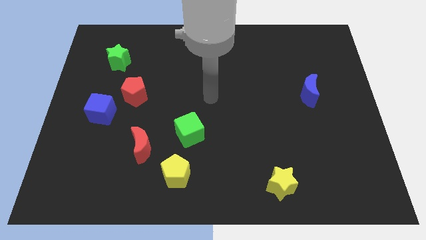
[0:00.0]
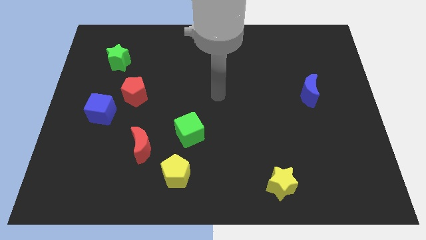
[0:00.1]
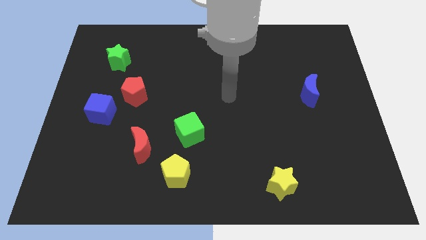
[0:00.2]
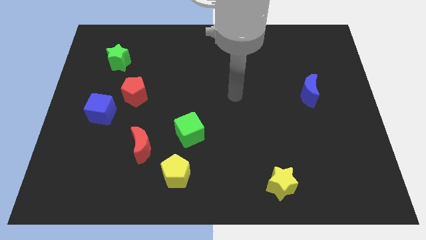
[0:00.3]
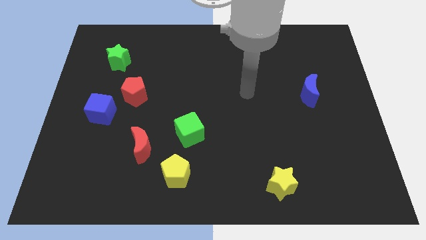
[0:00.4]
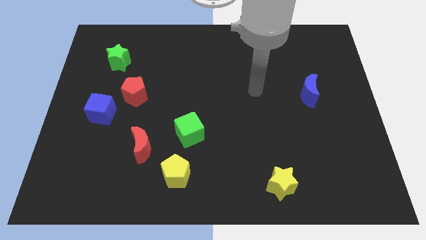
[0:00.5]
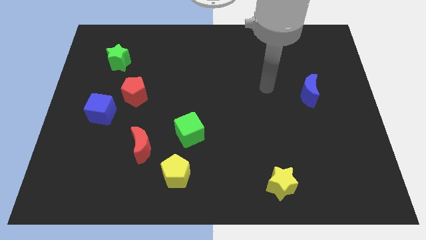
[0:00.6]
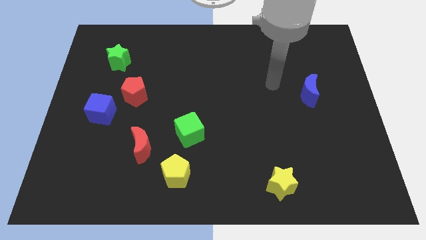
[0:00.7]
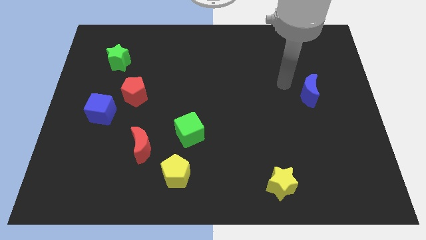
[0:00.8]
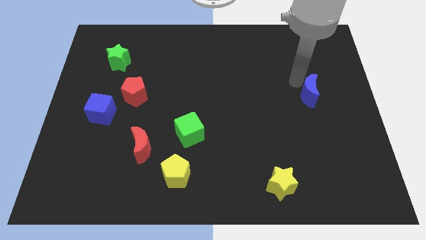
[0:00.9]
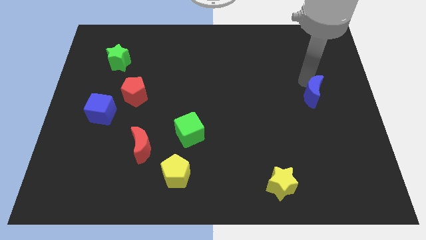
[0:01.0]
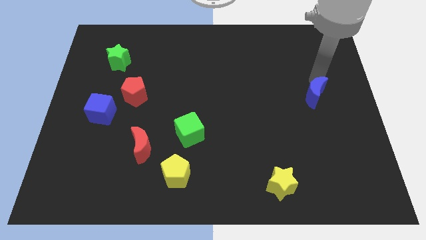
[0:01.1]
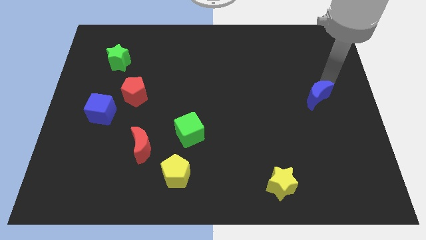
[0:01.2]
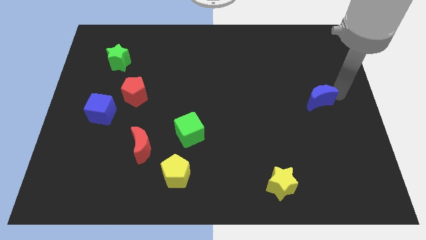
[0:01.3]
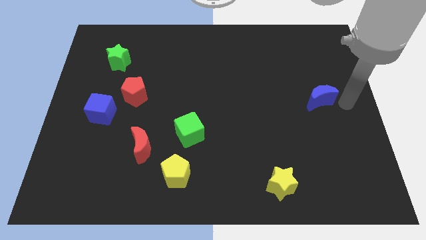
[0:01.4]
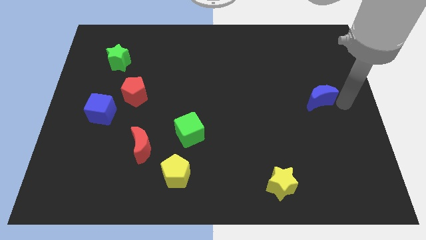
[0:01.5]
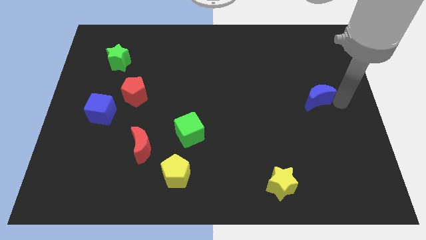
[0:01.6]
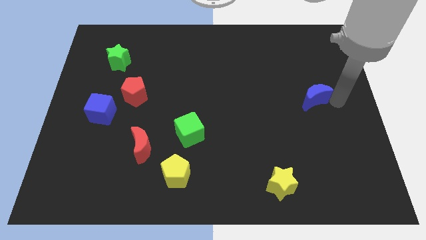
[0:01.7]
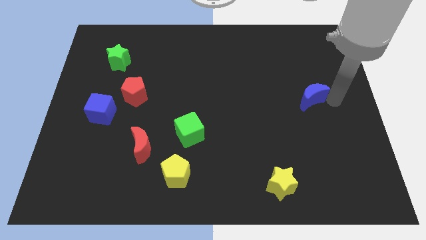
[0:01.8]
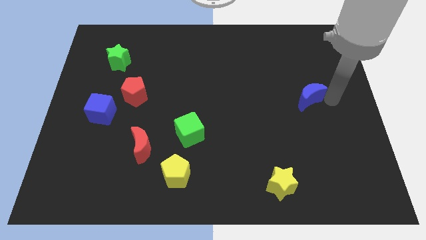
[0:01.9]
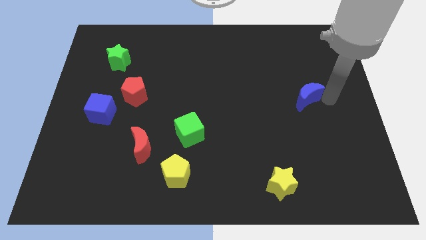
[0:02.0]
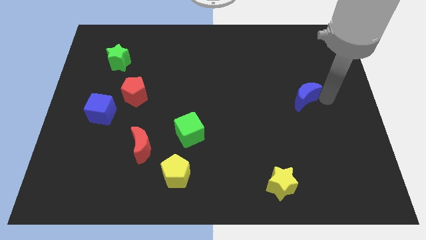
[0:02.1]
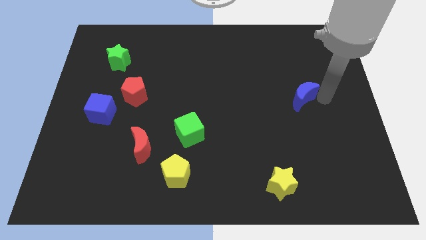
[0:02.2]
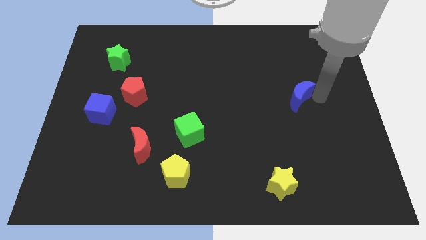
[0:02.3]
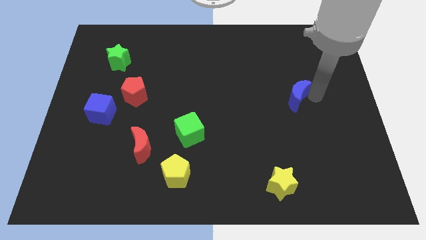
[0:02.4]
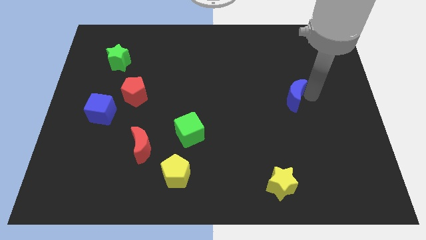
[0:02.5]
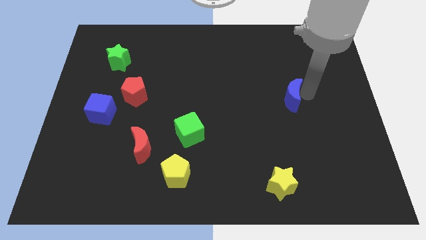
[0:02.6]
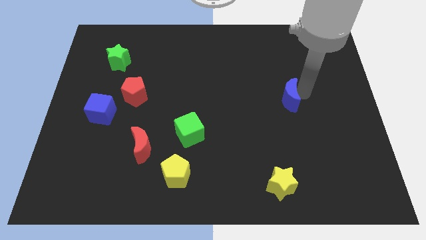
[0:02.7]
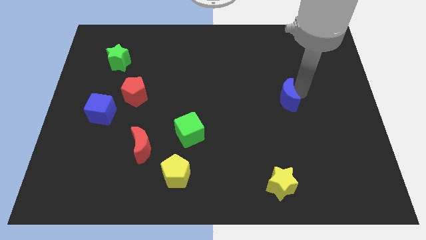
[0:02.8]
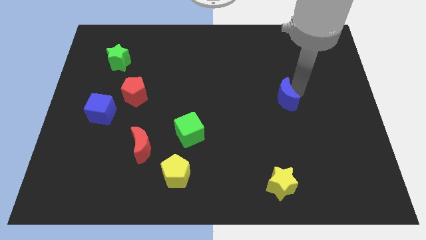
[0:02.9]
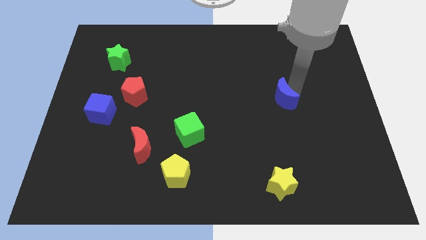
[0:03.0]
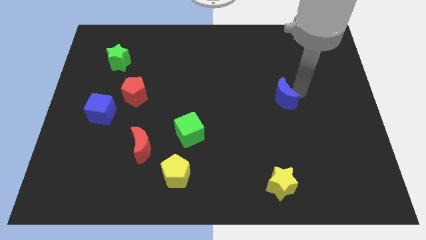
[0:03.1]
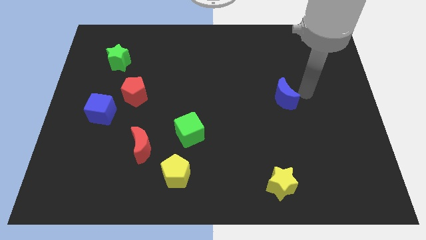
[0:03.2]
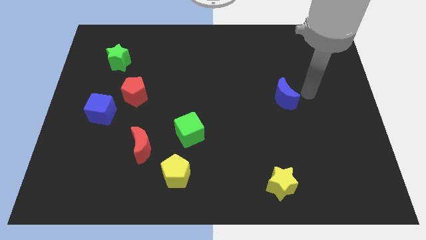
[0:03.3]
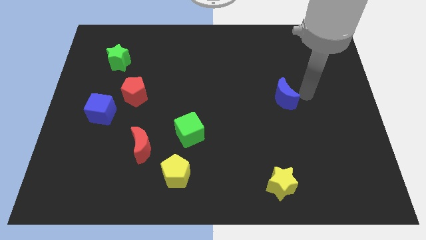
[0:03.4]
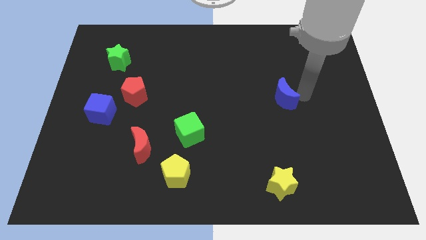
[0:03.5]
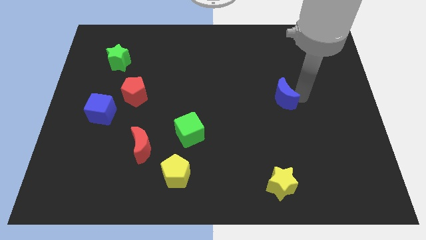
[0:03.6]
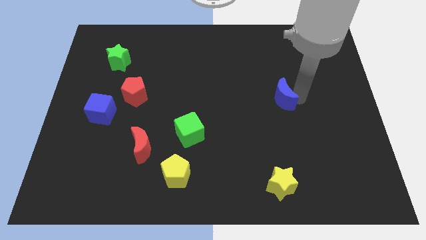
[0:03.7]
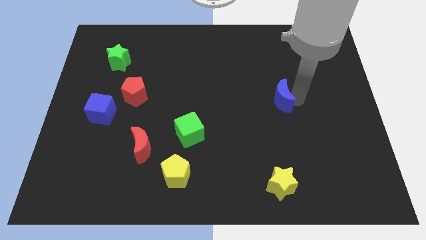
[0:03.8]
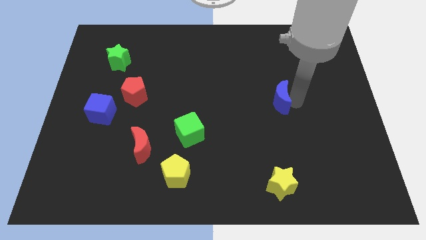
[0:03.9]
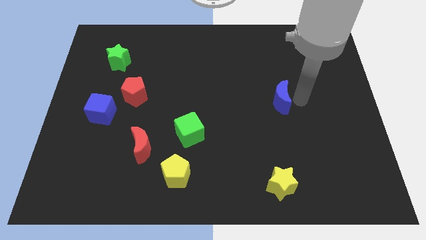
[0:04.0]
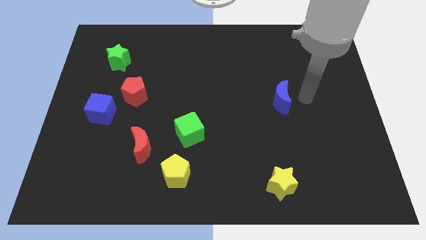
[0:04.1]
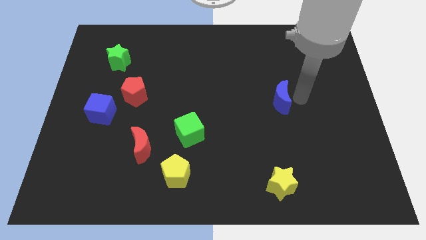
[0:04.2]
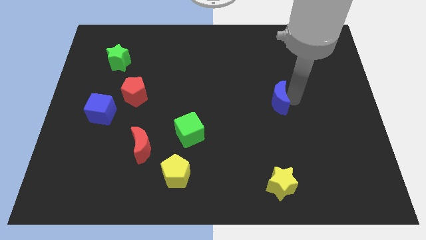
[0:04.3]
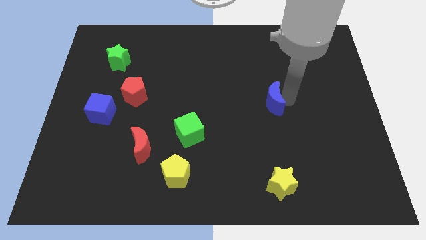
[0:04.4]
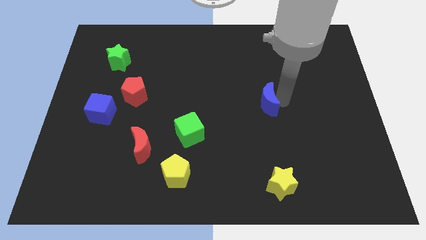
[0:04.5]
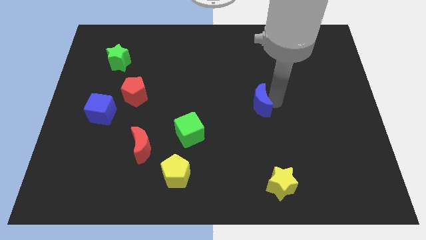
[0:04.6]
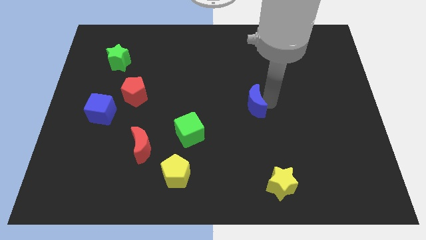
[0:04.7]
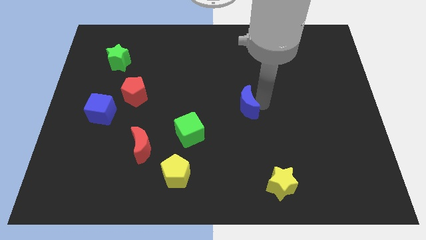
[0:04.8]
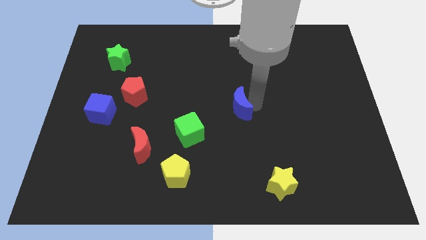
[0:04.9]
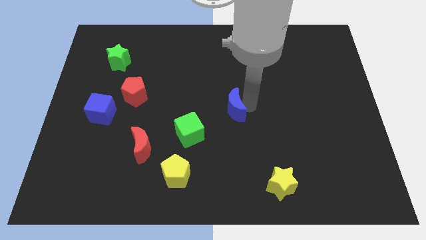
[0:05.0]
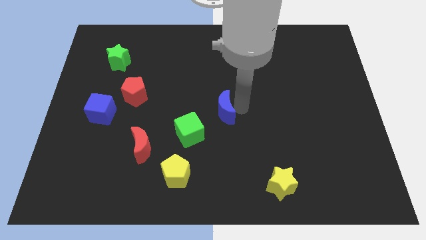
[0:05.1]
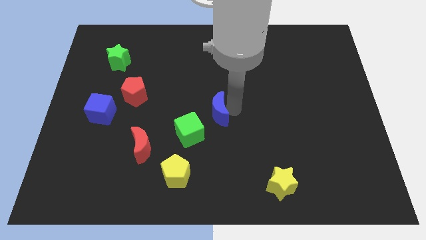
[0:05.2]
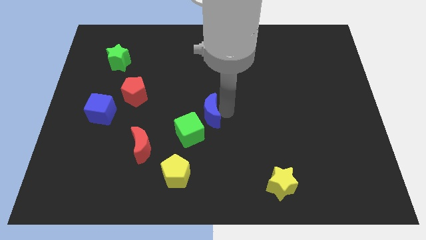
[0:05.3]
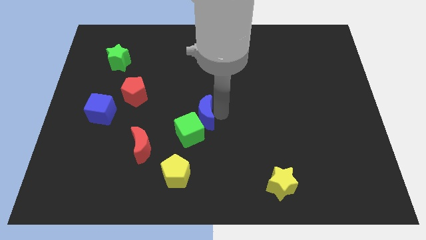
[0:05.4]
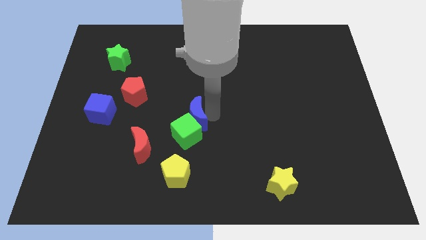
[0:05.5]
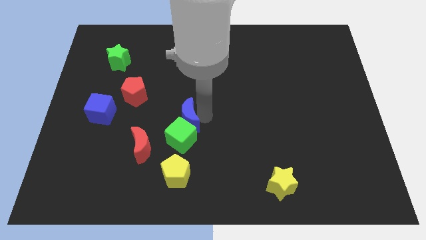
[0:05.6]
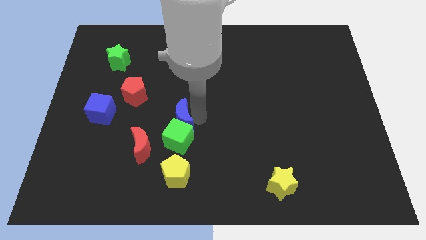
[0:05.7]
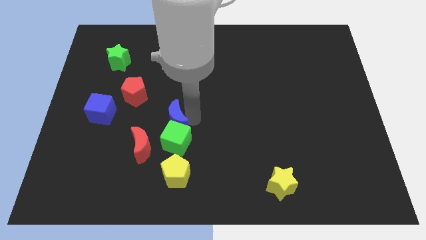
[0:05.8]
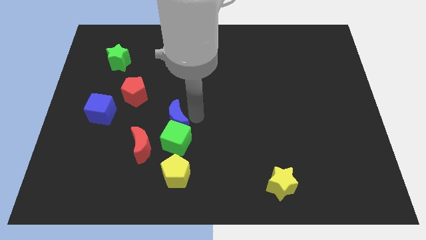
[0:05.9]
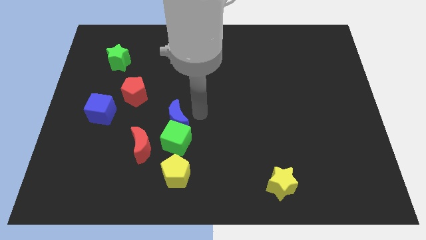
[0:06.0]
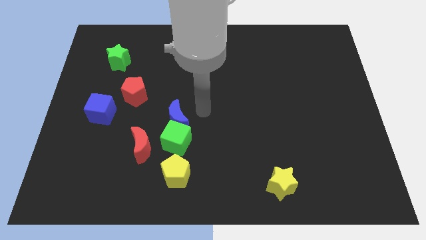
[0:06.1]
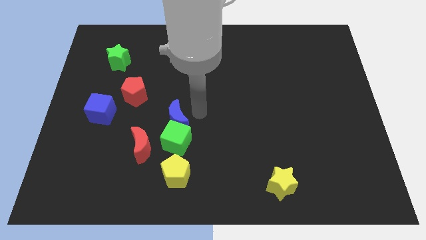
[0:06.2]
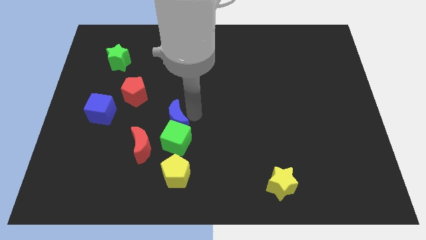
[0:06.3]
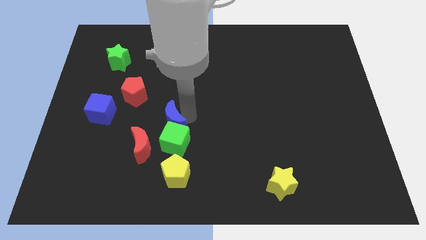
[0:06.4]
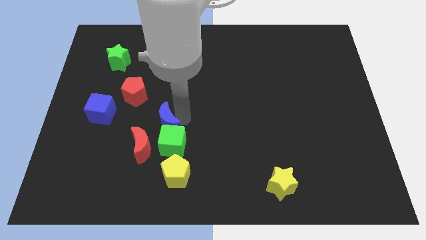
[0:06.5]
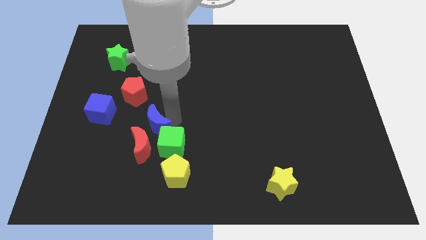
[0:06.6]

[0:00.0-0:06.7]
put the blue moon to the red moon

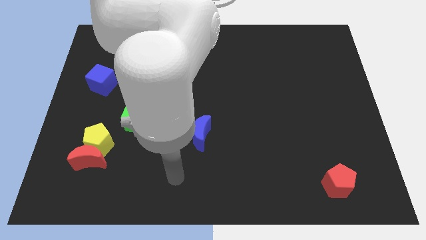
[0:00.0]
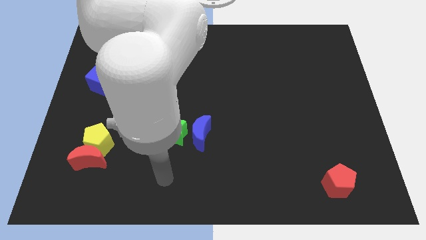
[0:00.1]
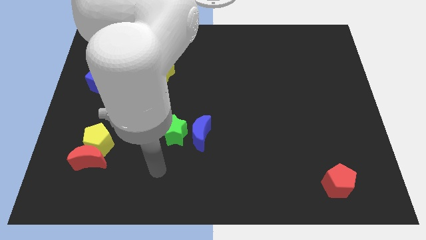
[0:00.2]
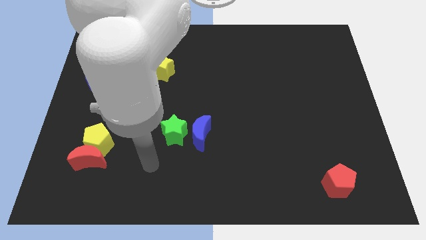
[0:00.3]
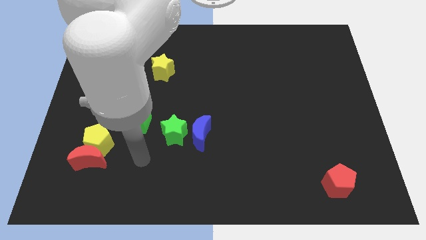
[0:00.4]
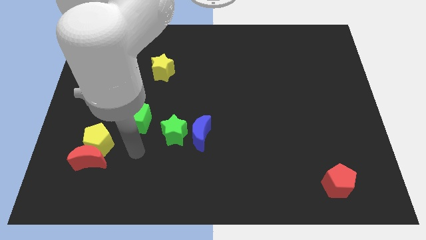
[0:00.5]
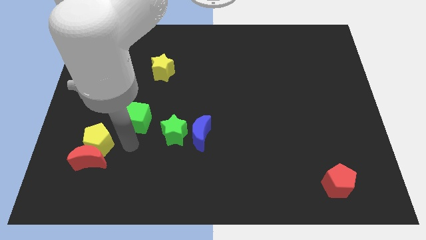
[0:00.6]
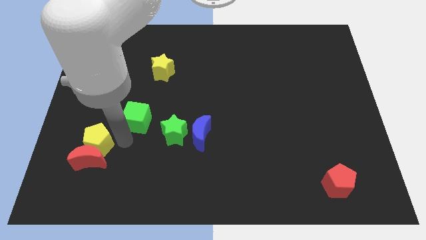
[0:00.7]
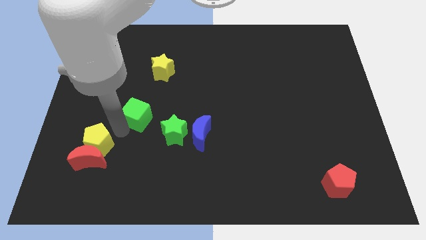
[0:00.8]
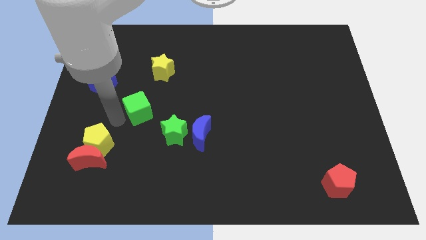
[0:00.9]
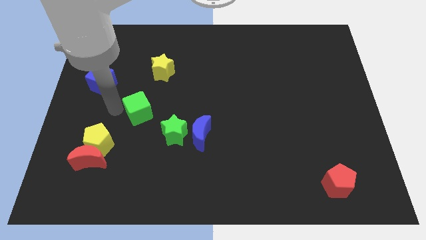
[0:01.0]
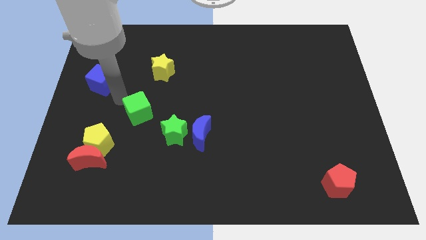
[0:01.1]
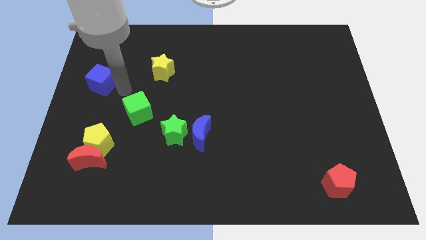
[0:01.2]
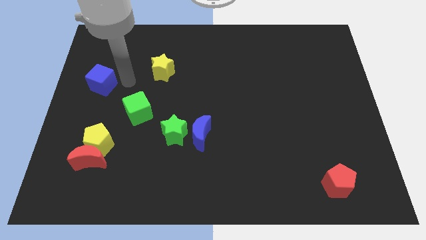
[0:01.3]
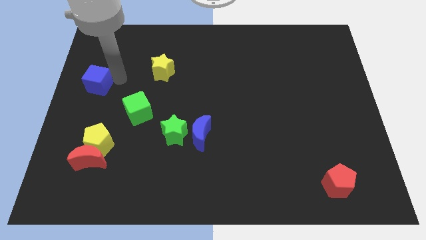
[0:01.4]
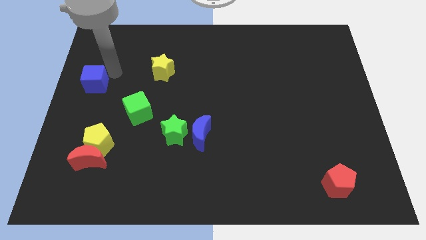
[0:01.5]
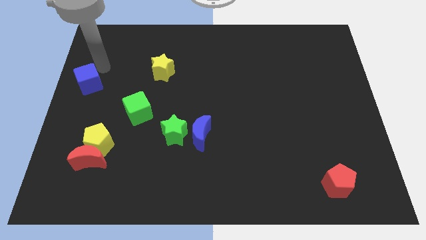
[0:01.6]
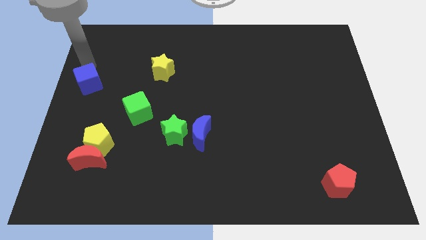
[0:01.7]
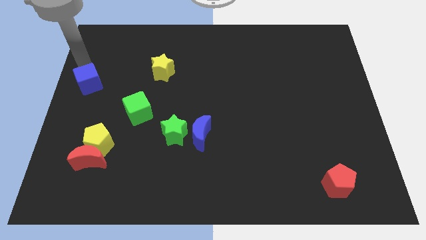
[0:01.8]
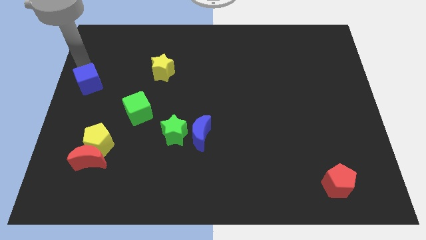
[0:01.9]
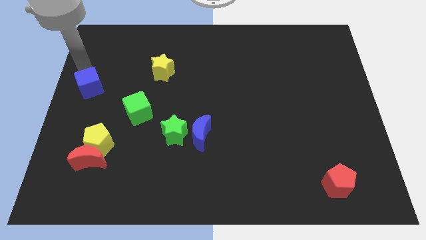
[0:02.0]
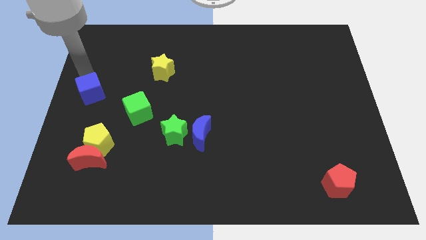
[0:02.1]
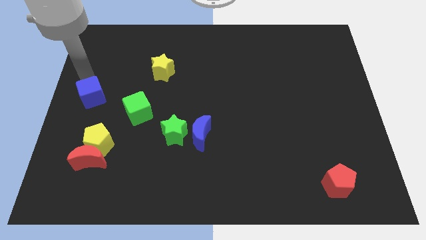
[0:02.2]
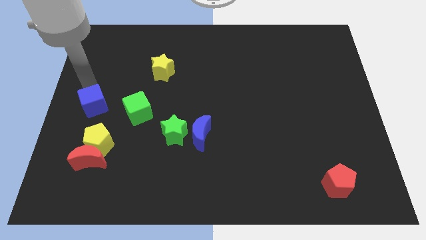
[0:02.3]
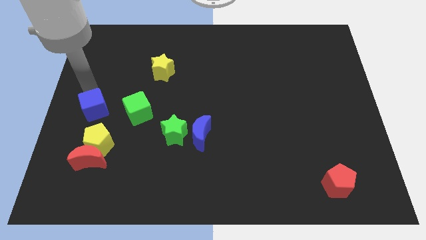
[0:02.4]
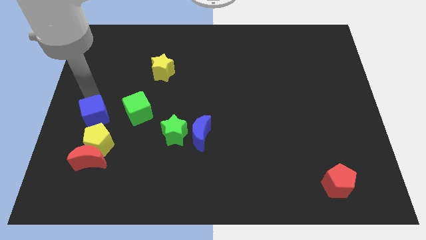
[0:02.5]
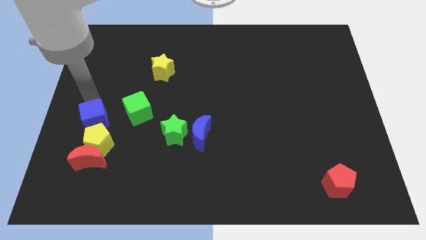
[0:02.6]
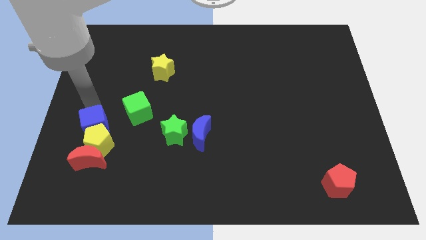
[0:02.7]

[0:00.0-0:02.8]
move the blue cube towards the yellow pentagon
